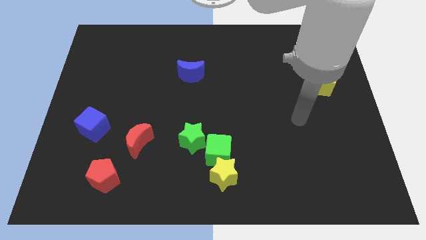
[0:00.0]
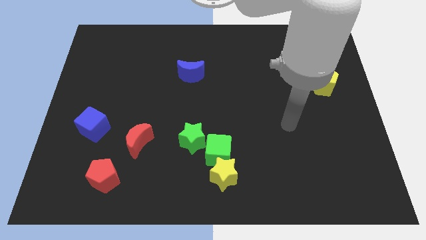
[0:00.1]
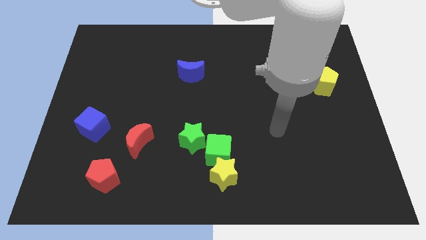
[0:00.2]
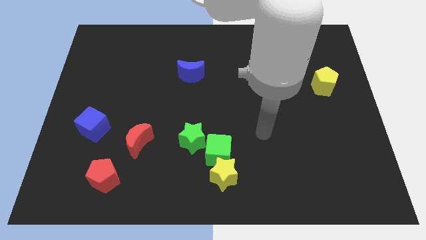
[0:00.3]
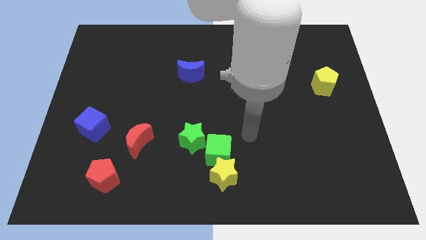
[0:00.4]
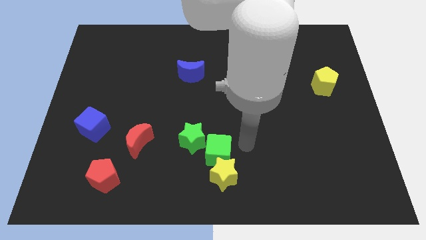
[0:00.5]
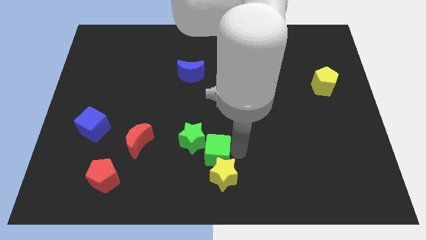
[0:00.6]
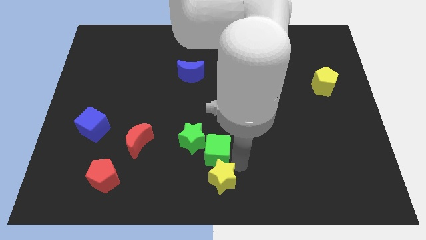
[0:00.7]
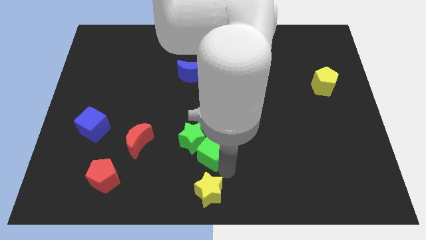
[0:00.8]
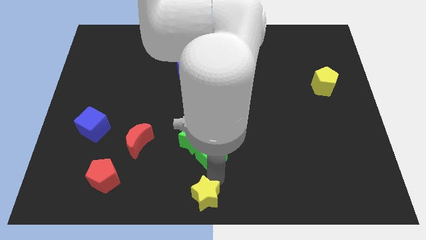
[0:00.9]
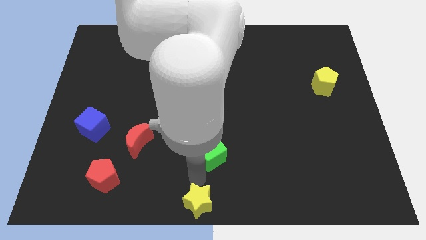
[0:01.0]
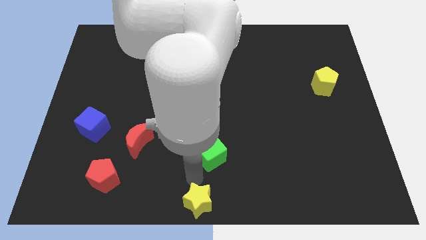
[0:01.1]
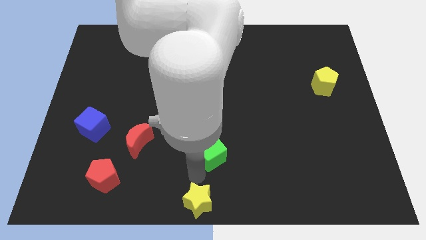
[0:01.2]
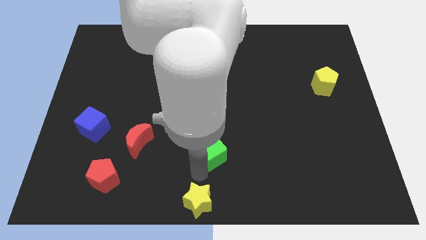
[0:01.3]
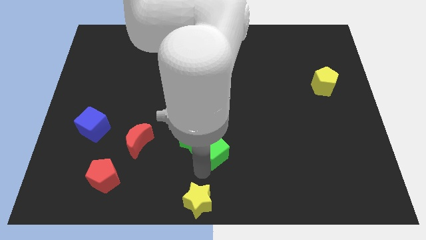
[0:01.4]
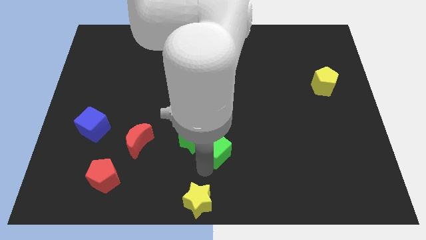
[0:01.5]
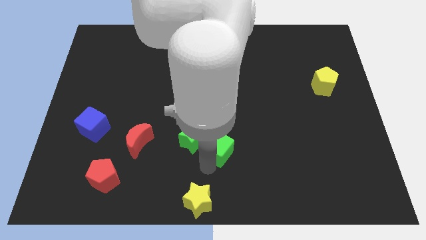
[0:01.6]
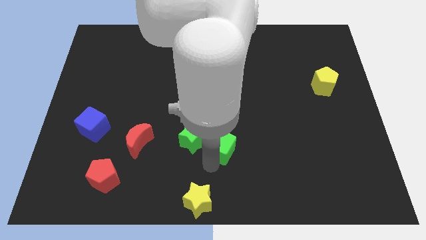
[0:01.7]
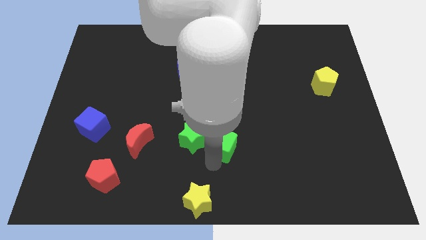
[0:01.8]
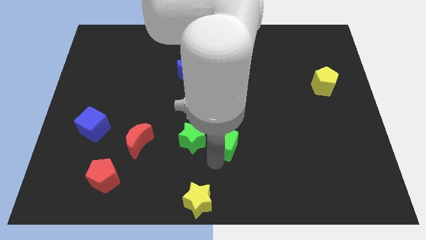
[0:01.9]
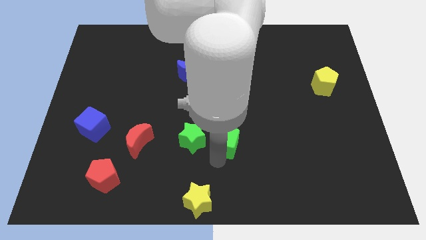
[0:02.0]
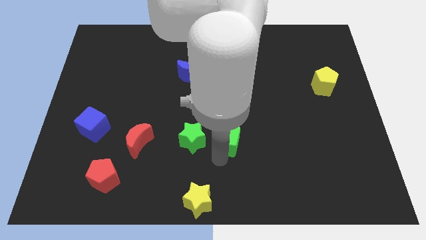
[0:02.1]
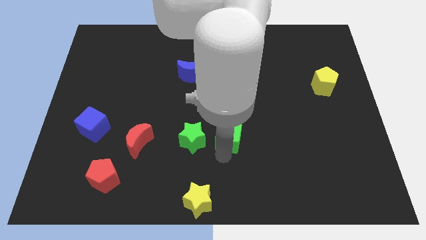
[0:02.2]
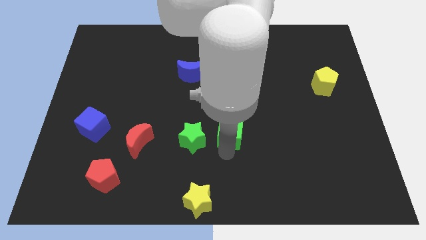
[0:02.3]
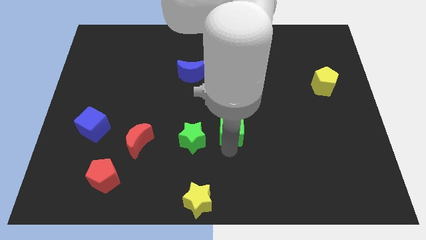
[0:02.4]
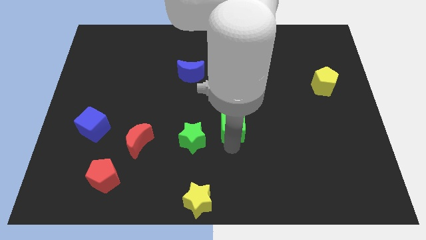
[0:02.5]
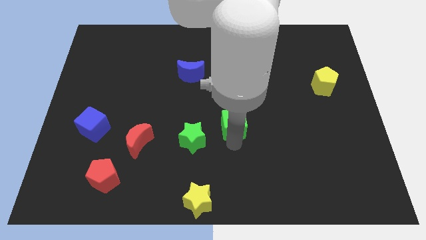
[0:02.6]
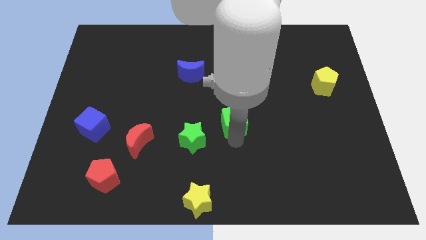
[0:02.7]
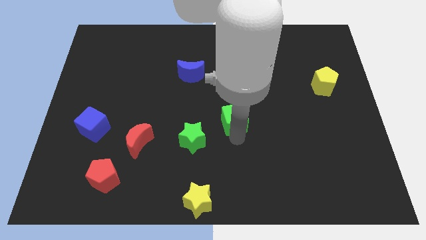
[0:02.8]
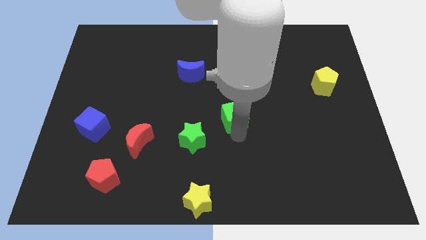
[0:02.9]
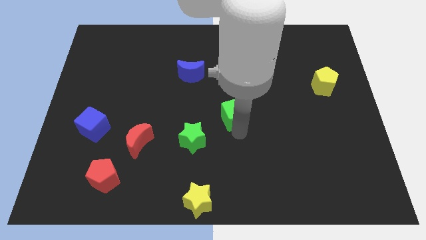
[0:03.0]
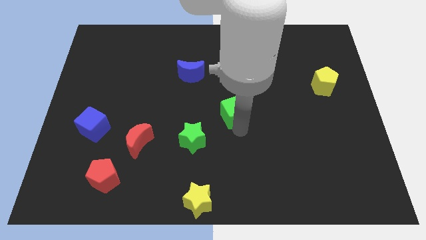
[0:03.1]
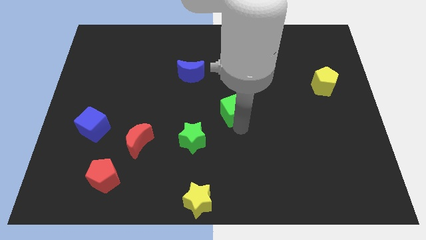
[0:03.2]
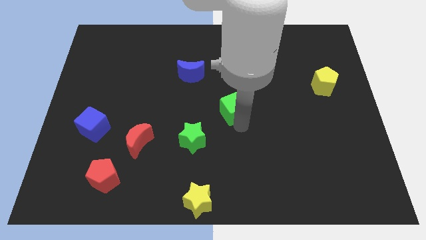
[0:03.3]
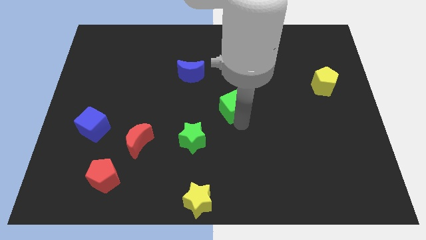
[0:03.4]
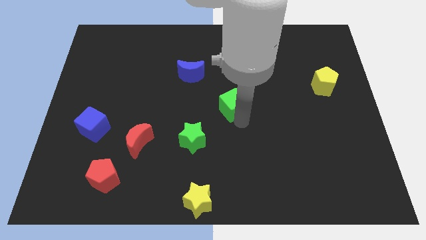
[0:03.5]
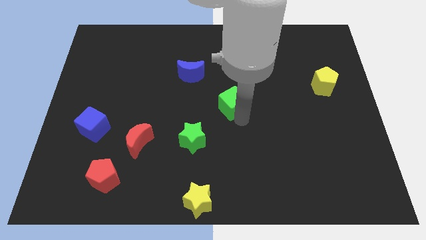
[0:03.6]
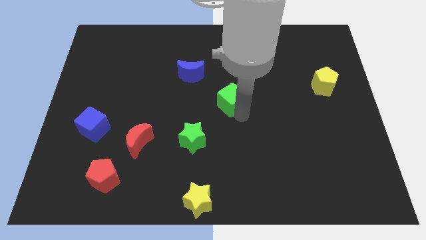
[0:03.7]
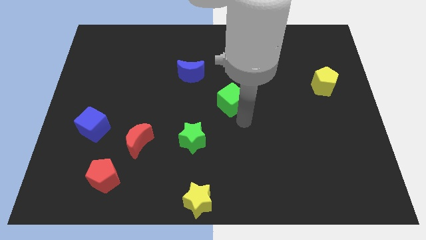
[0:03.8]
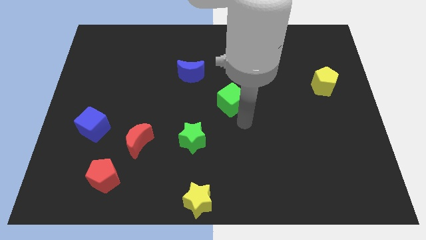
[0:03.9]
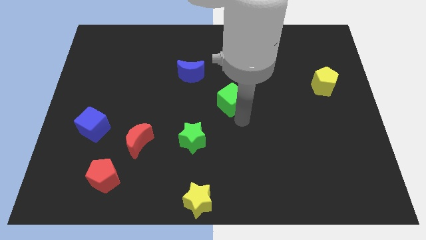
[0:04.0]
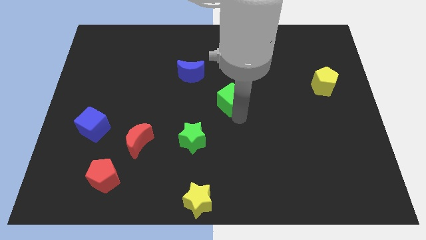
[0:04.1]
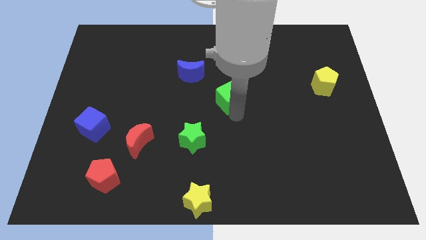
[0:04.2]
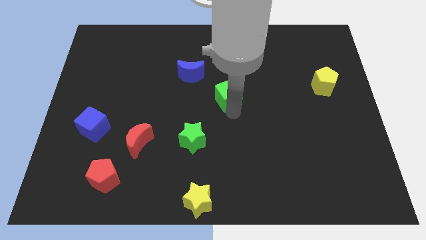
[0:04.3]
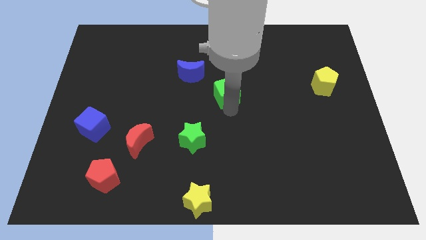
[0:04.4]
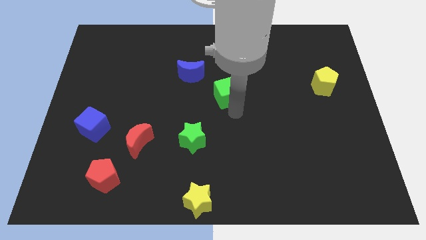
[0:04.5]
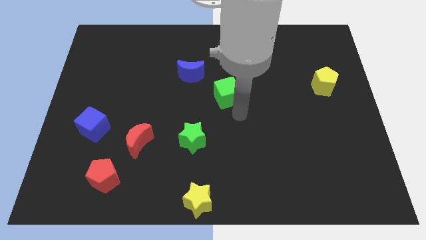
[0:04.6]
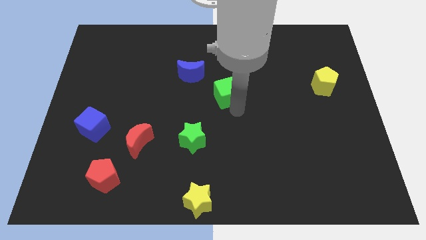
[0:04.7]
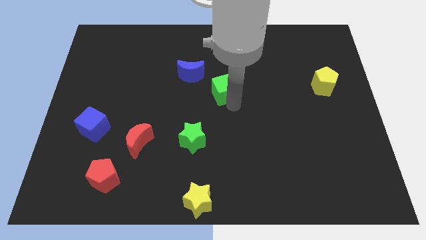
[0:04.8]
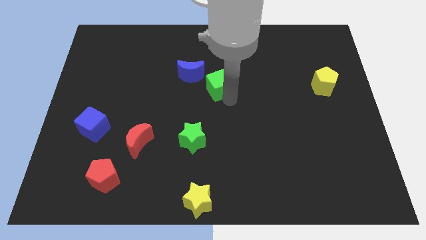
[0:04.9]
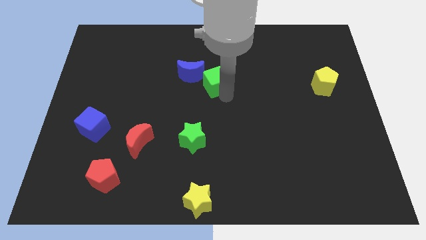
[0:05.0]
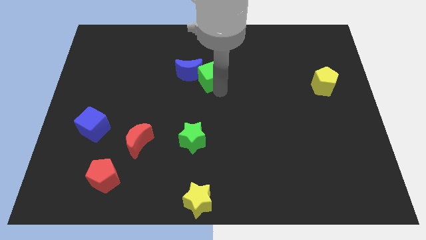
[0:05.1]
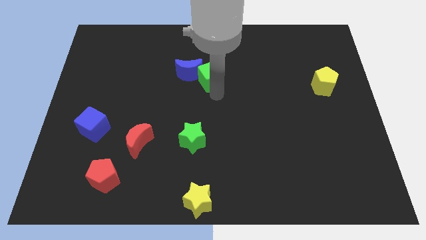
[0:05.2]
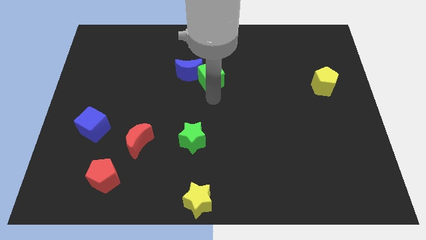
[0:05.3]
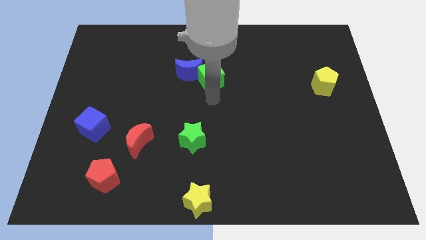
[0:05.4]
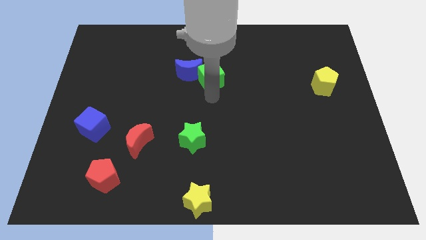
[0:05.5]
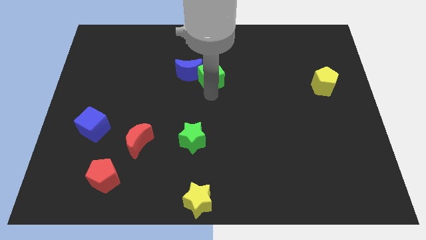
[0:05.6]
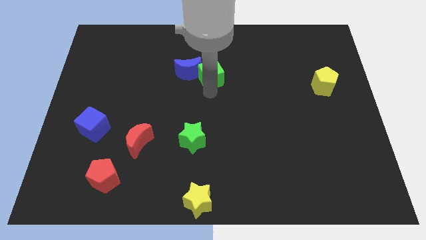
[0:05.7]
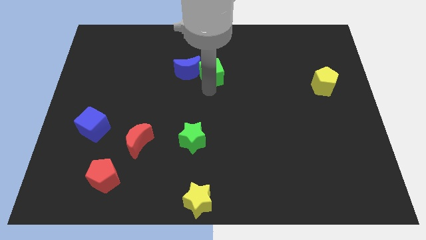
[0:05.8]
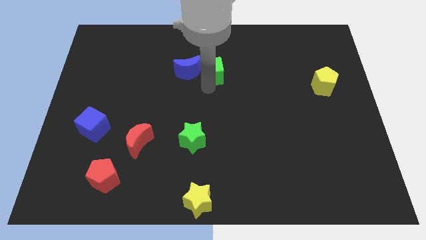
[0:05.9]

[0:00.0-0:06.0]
put the green cube diagonally up and to the right of the blue moon

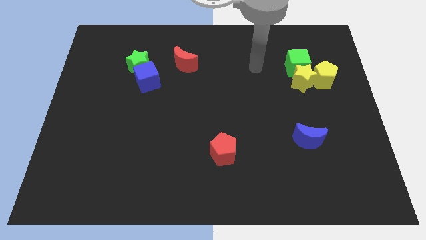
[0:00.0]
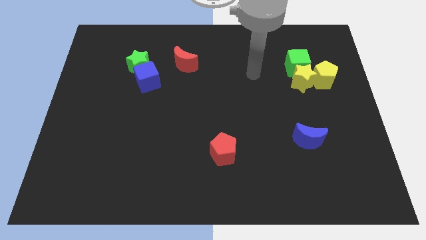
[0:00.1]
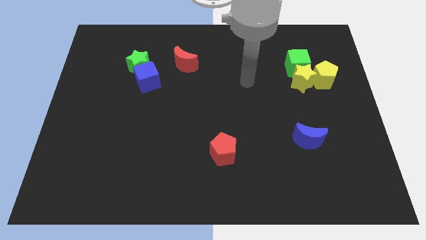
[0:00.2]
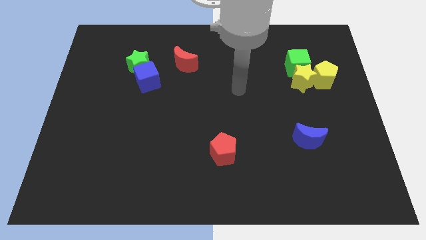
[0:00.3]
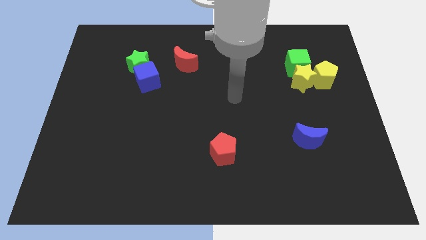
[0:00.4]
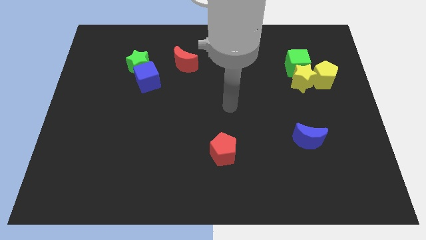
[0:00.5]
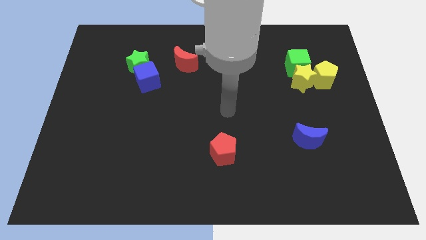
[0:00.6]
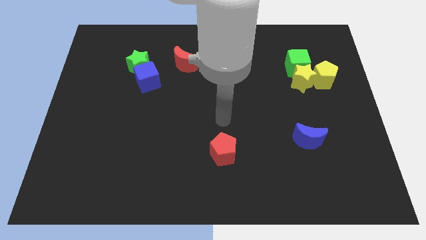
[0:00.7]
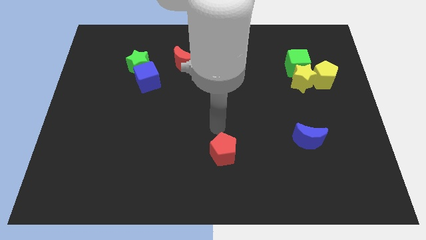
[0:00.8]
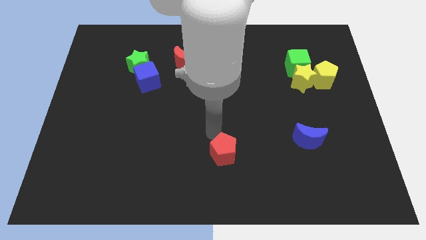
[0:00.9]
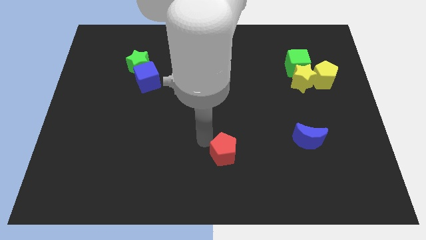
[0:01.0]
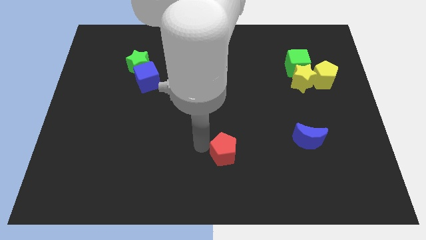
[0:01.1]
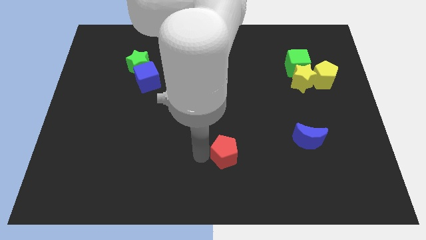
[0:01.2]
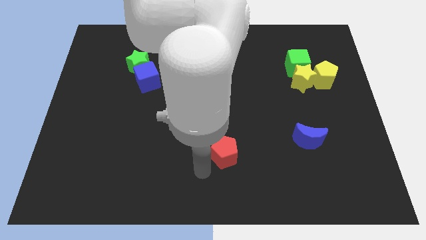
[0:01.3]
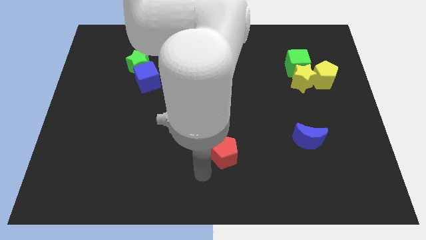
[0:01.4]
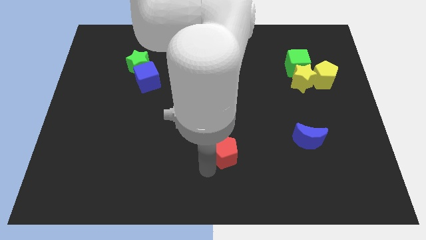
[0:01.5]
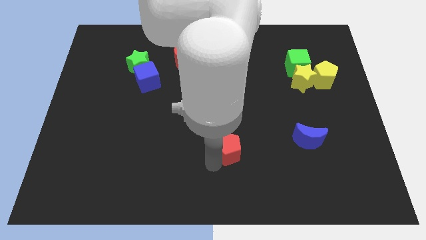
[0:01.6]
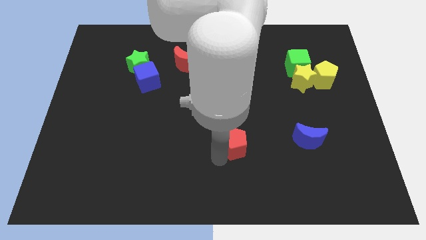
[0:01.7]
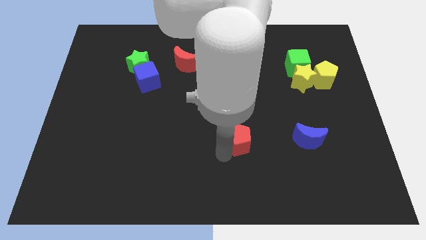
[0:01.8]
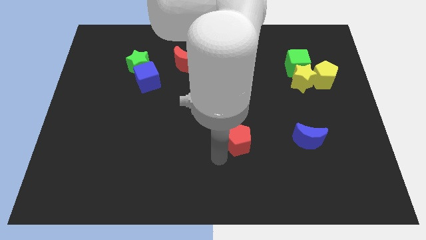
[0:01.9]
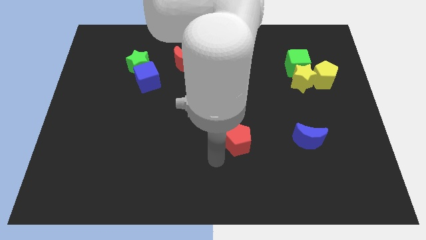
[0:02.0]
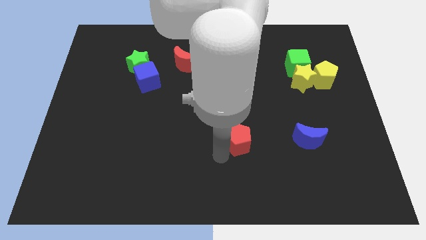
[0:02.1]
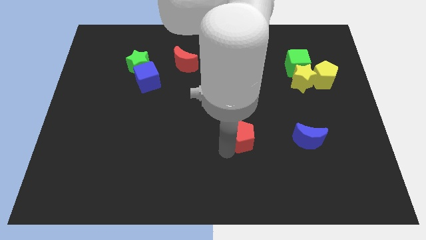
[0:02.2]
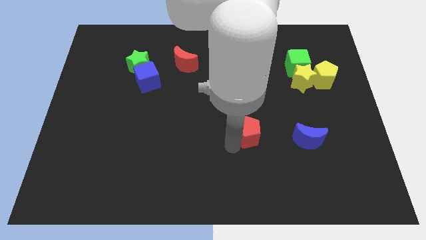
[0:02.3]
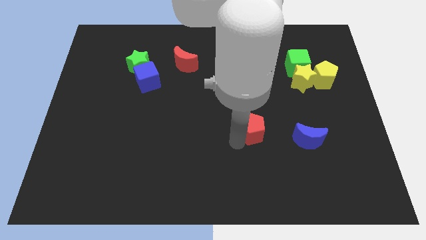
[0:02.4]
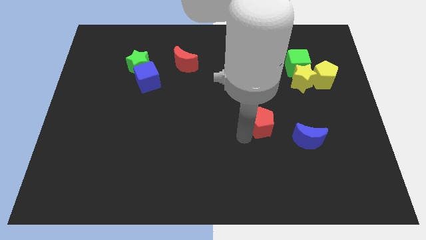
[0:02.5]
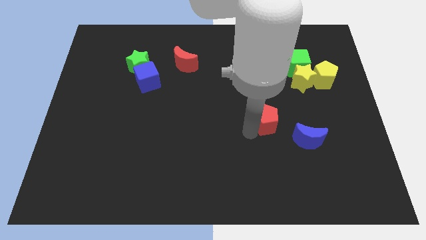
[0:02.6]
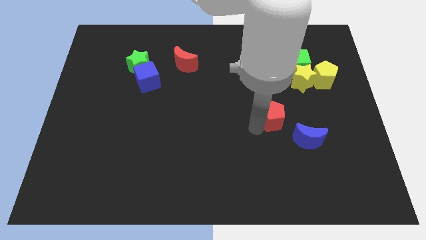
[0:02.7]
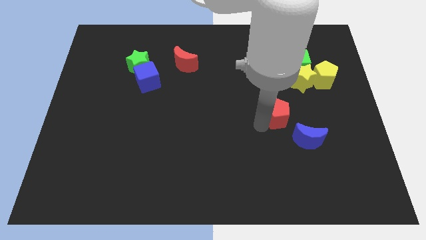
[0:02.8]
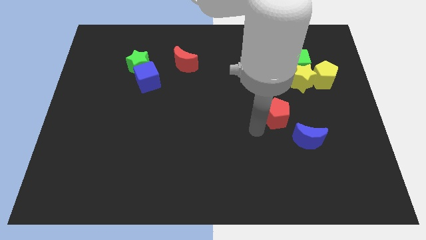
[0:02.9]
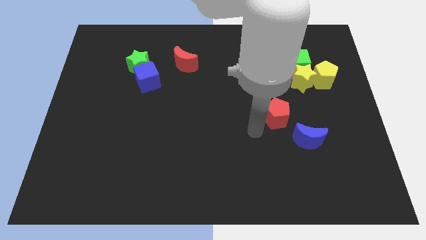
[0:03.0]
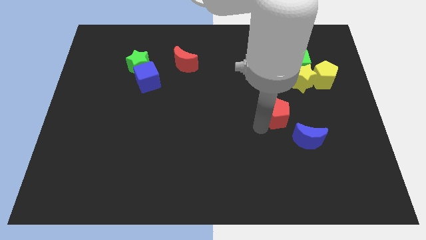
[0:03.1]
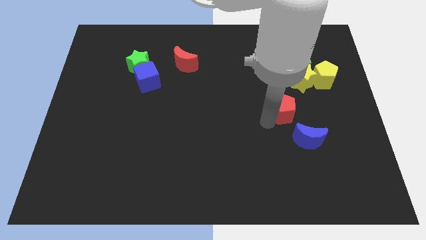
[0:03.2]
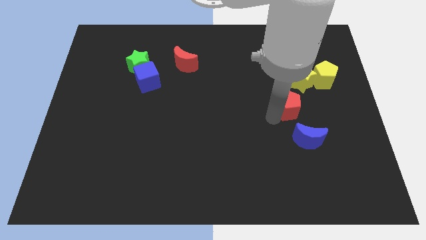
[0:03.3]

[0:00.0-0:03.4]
put the red pentagon below the green cube
